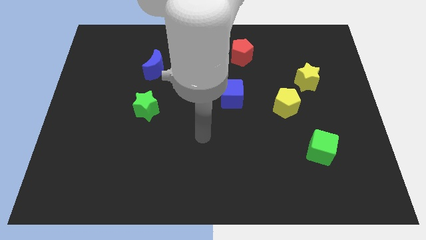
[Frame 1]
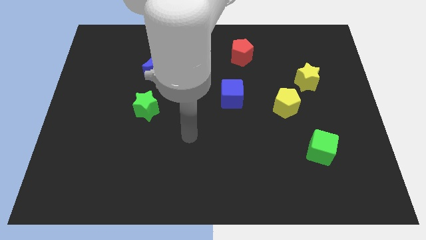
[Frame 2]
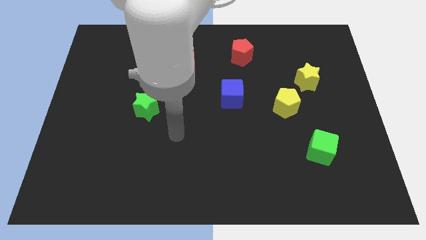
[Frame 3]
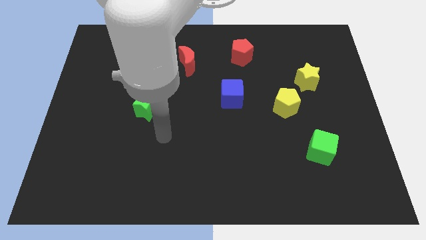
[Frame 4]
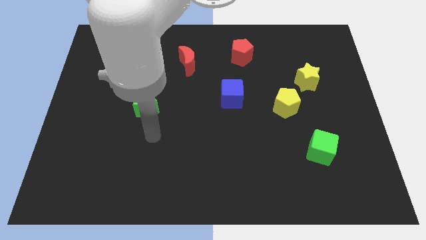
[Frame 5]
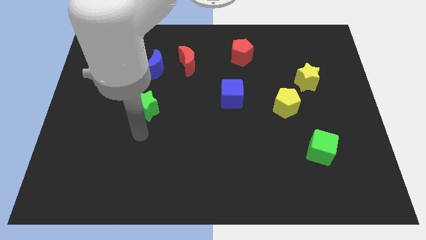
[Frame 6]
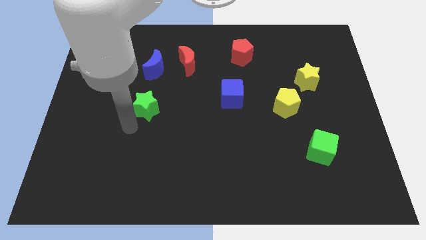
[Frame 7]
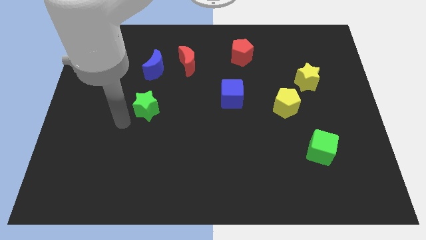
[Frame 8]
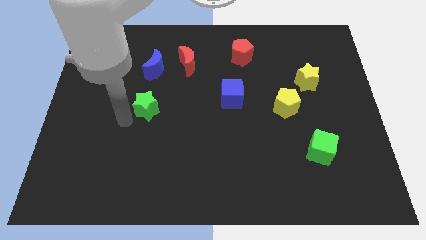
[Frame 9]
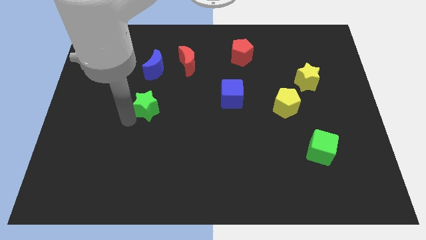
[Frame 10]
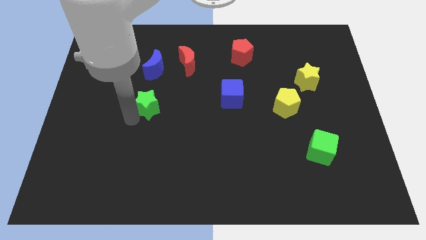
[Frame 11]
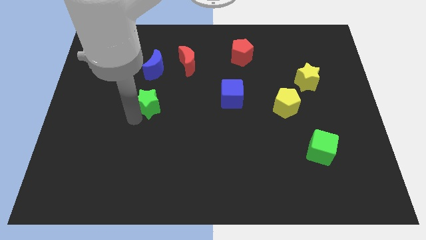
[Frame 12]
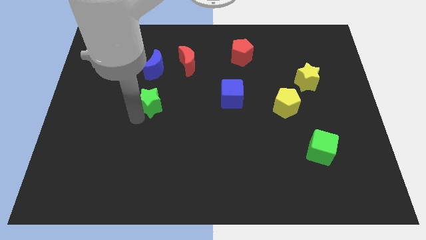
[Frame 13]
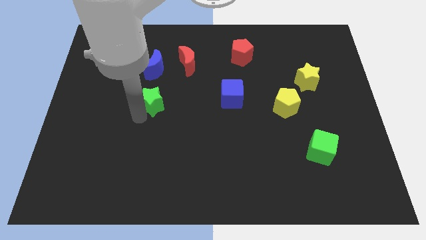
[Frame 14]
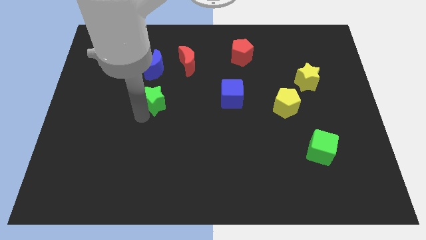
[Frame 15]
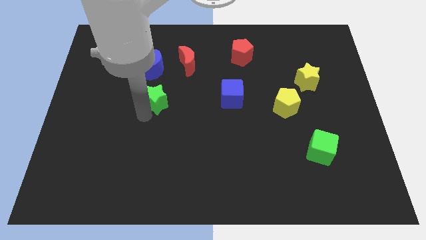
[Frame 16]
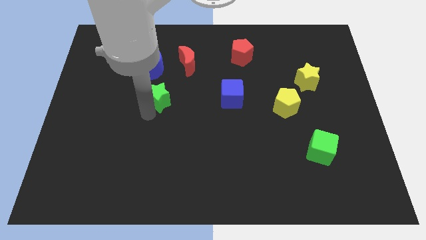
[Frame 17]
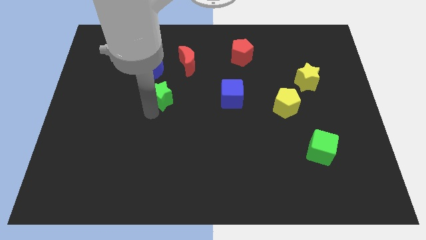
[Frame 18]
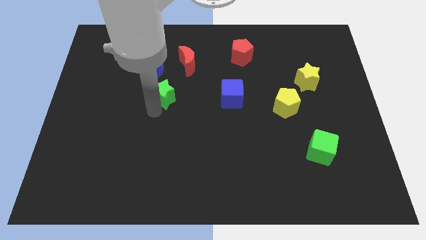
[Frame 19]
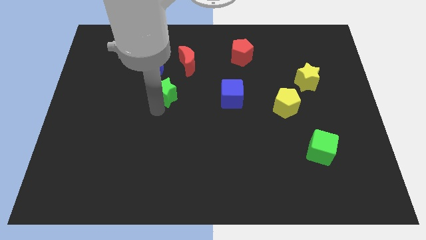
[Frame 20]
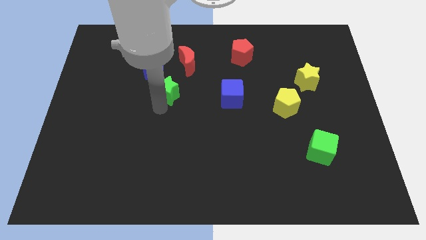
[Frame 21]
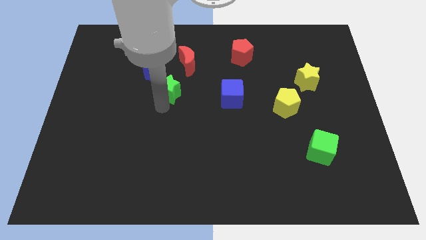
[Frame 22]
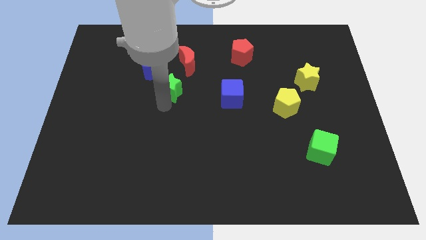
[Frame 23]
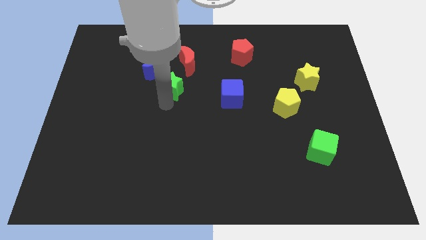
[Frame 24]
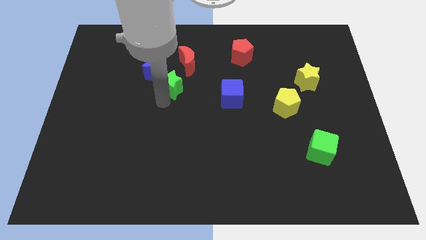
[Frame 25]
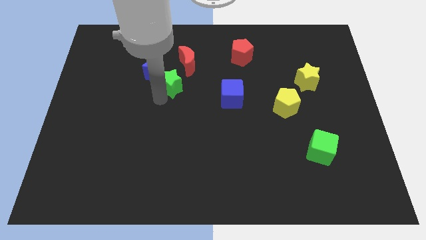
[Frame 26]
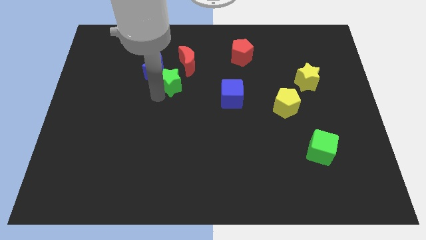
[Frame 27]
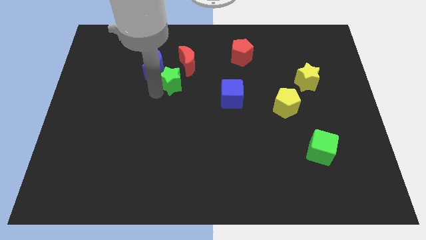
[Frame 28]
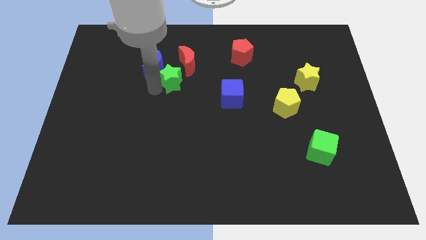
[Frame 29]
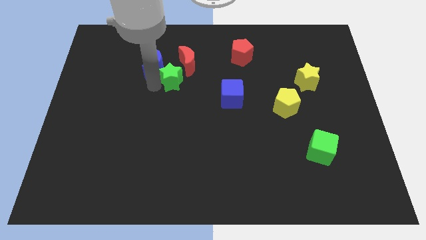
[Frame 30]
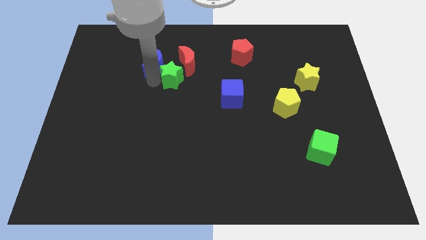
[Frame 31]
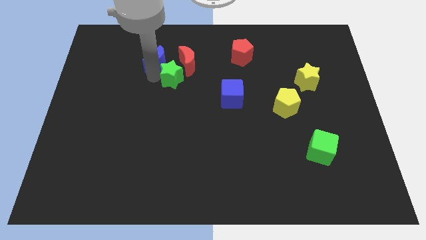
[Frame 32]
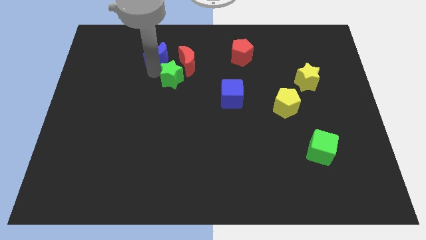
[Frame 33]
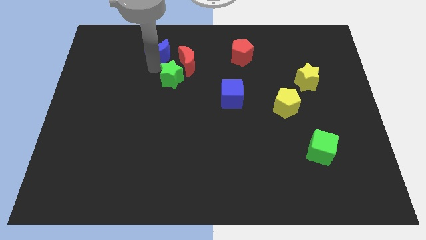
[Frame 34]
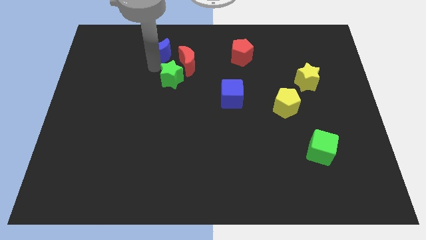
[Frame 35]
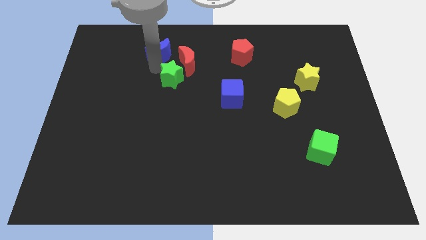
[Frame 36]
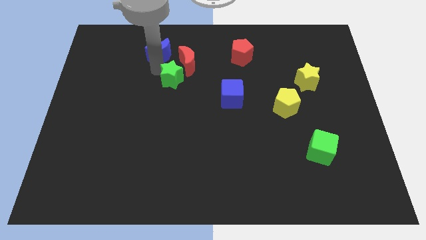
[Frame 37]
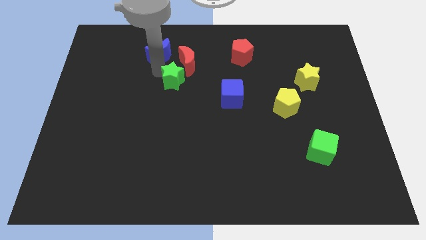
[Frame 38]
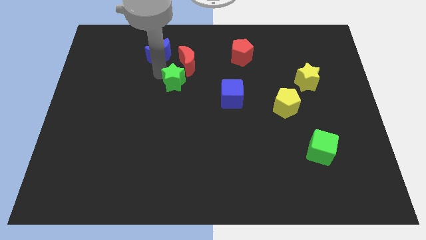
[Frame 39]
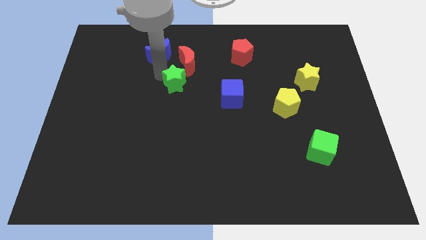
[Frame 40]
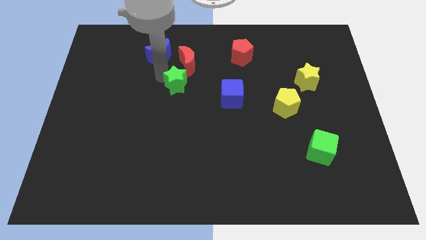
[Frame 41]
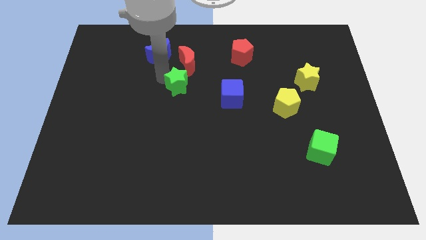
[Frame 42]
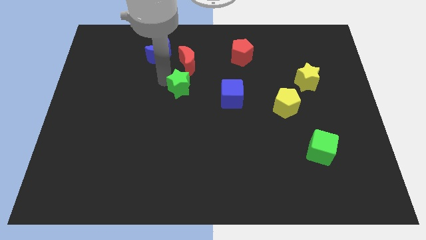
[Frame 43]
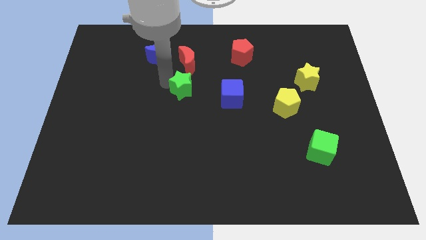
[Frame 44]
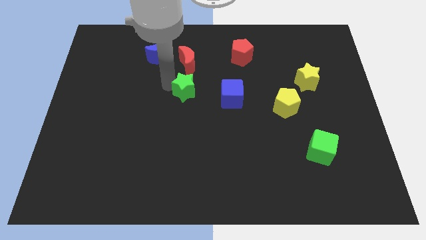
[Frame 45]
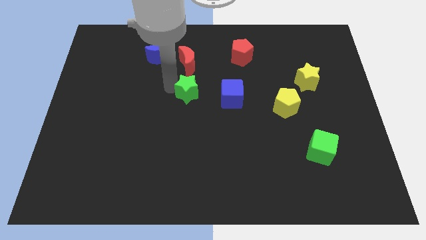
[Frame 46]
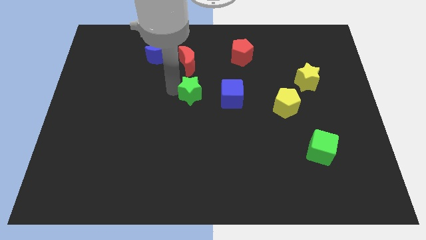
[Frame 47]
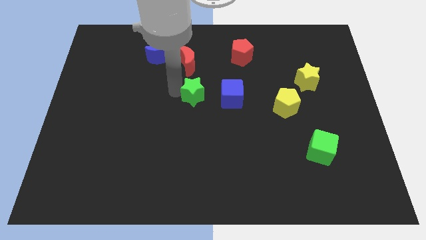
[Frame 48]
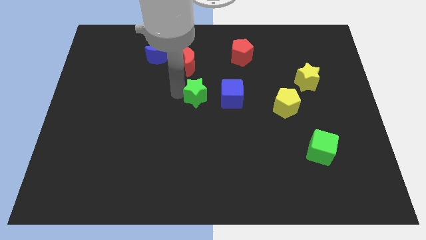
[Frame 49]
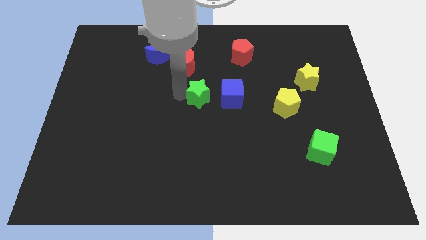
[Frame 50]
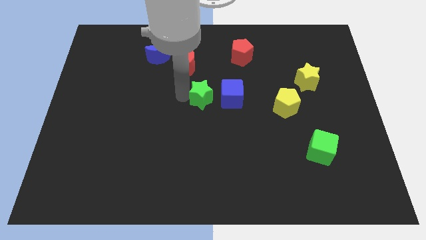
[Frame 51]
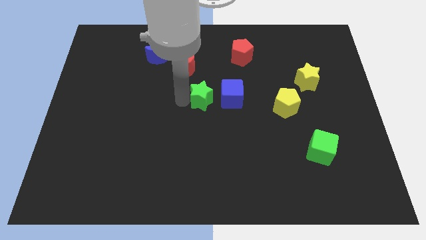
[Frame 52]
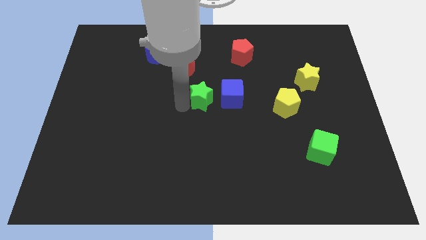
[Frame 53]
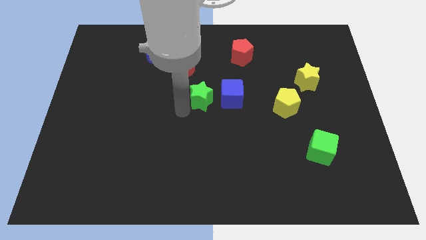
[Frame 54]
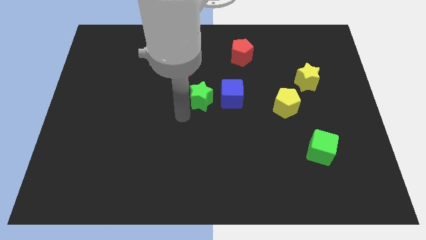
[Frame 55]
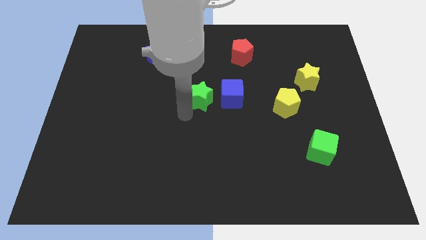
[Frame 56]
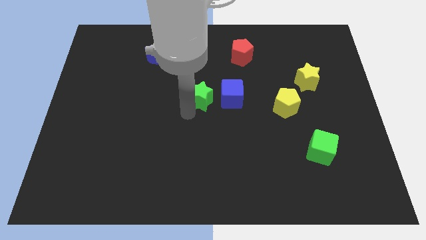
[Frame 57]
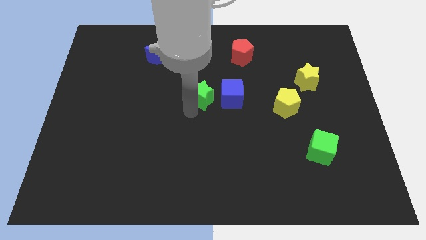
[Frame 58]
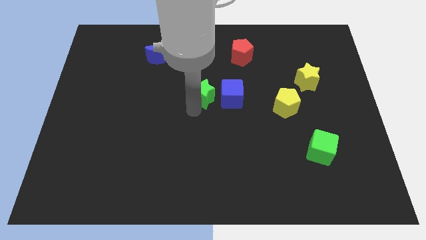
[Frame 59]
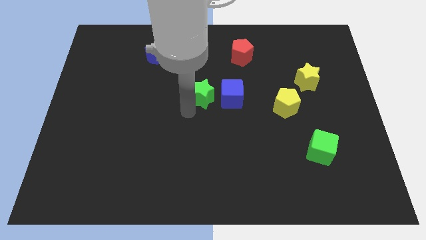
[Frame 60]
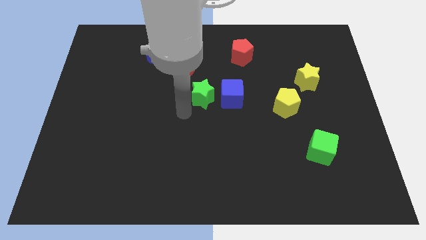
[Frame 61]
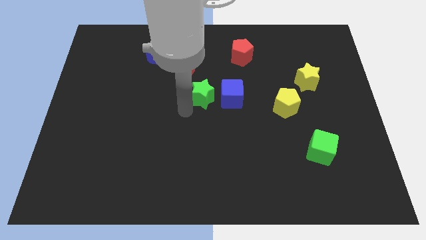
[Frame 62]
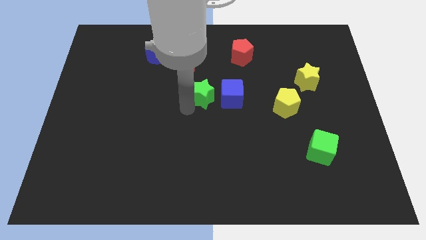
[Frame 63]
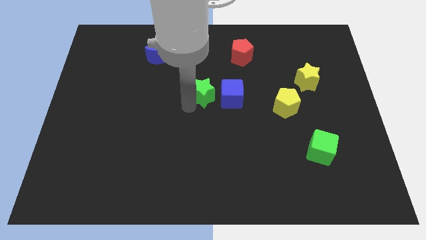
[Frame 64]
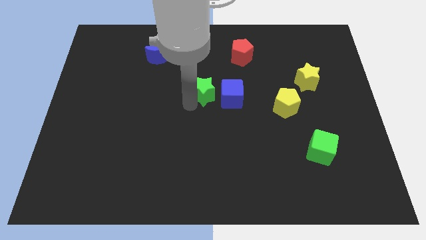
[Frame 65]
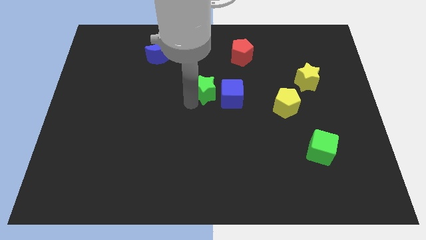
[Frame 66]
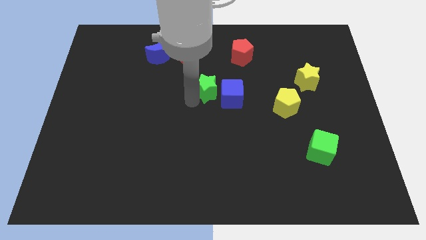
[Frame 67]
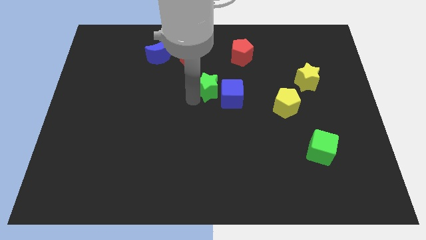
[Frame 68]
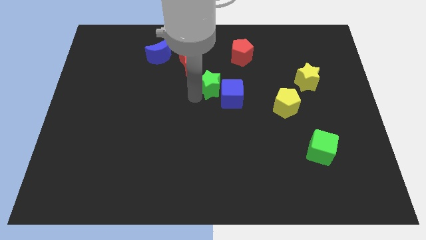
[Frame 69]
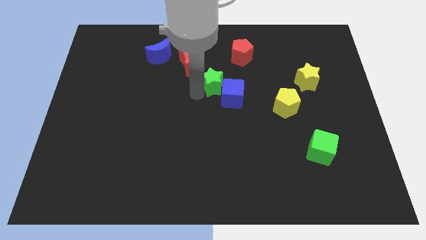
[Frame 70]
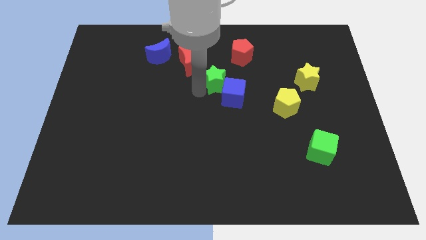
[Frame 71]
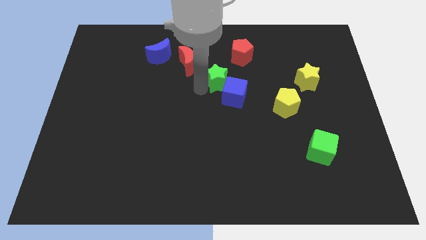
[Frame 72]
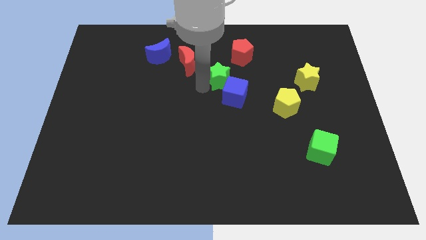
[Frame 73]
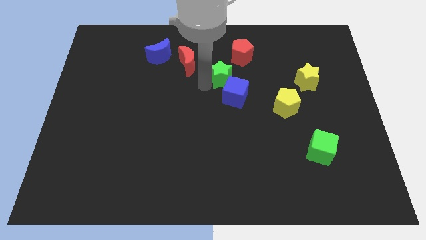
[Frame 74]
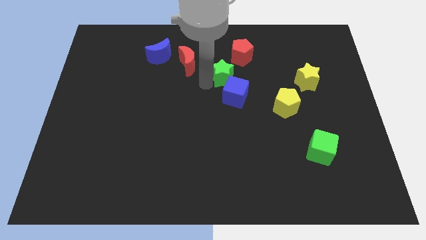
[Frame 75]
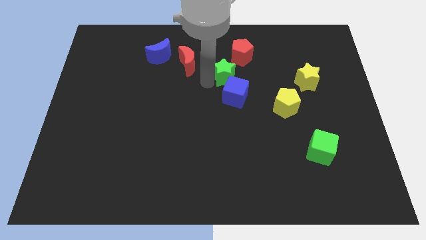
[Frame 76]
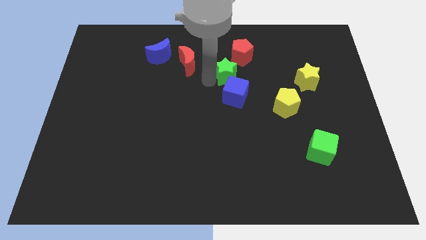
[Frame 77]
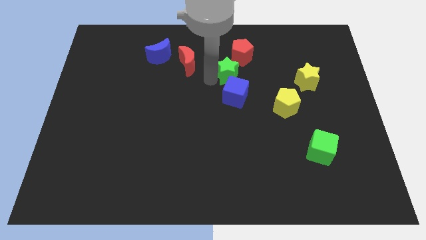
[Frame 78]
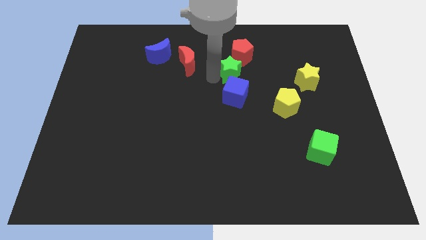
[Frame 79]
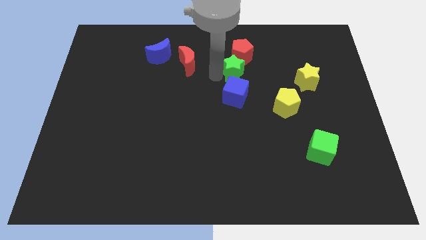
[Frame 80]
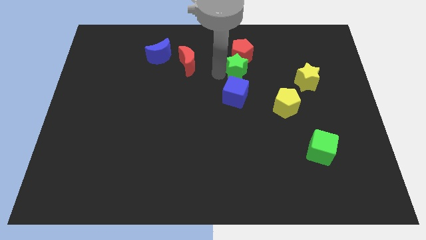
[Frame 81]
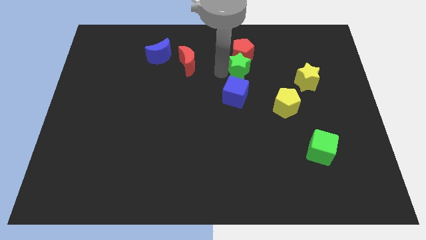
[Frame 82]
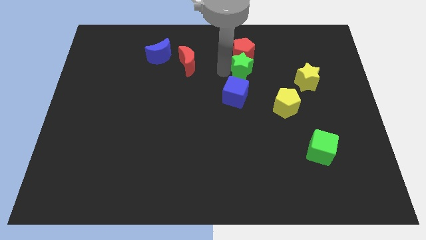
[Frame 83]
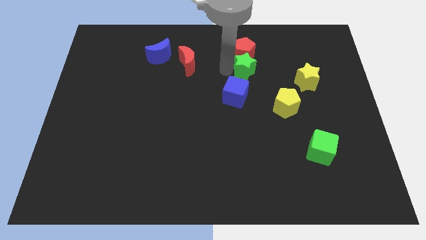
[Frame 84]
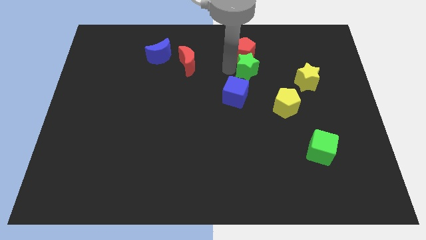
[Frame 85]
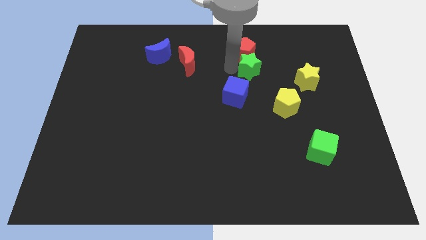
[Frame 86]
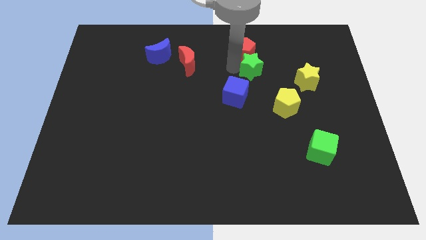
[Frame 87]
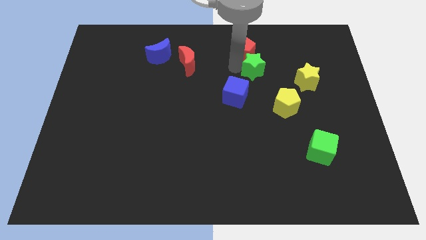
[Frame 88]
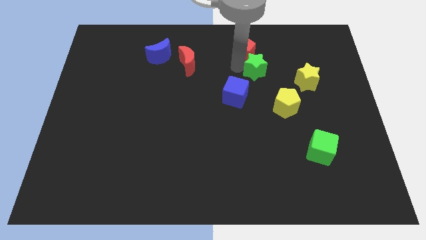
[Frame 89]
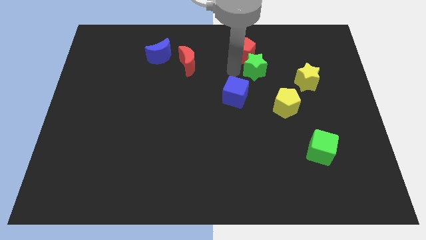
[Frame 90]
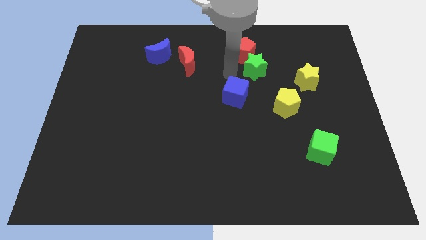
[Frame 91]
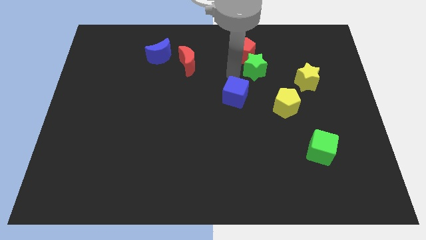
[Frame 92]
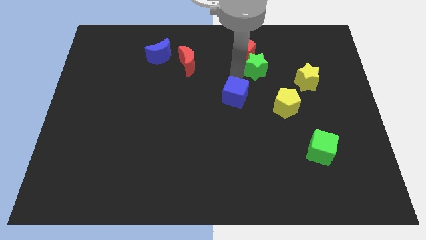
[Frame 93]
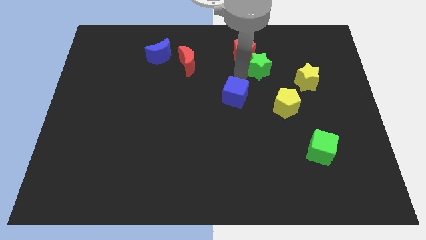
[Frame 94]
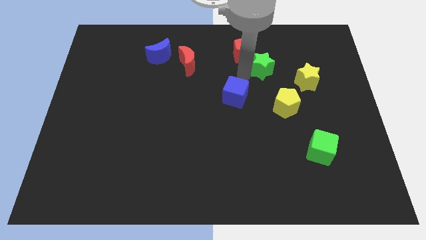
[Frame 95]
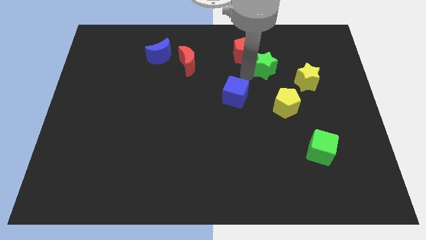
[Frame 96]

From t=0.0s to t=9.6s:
move the green star to the top left of the yellow star
